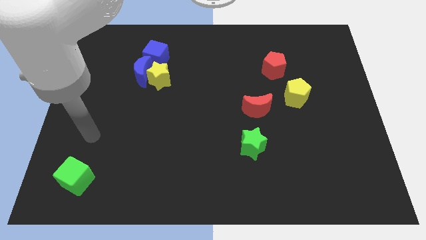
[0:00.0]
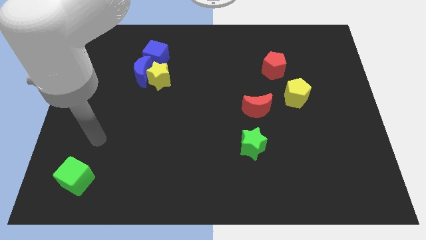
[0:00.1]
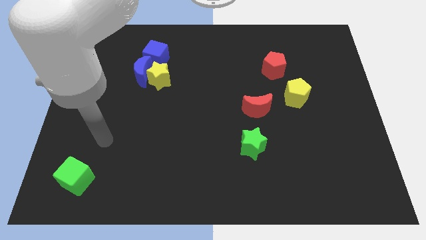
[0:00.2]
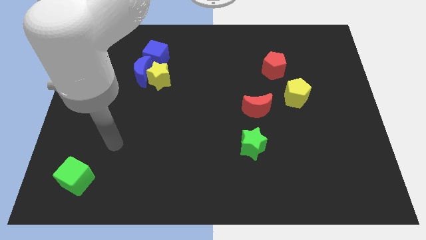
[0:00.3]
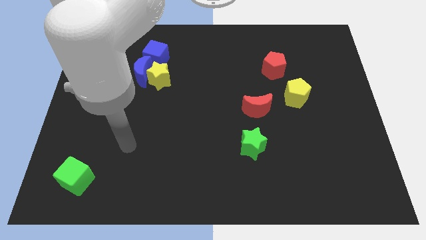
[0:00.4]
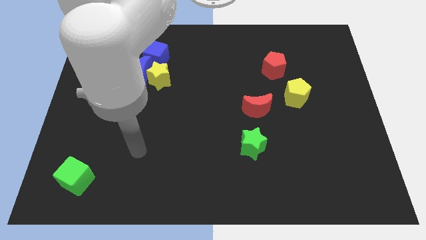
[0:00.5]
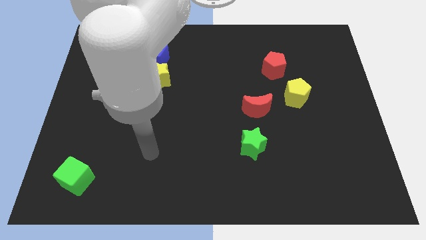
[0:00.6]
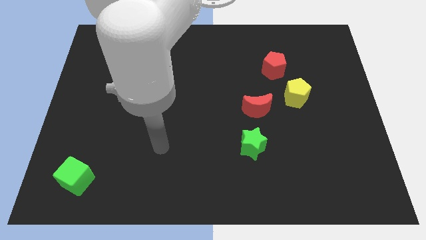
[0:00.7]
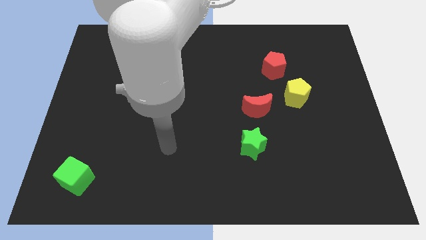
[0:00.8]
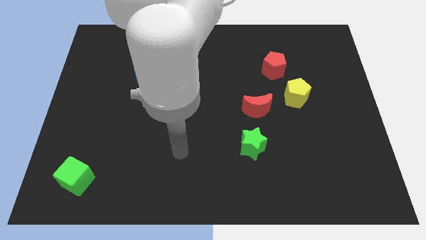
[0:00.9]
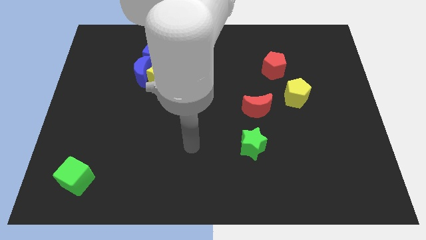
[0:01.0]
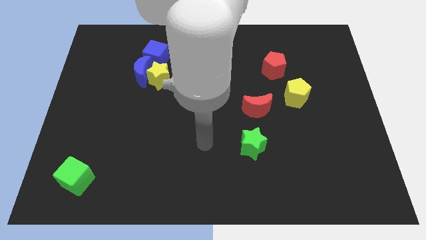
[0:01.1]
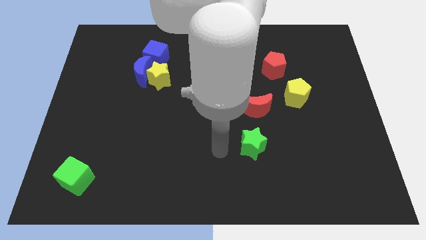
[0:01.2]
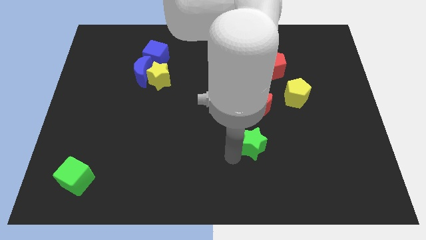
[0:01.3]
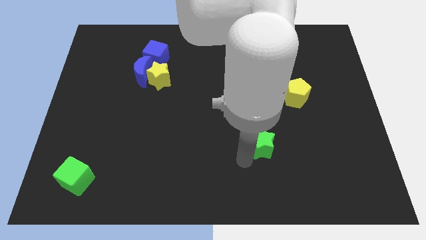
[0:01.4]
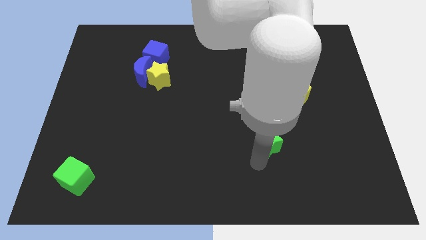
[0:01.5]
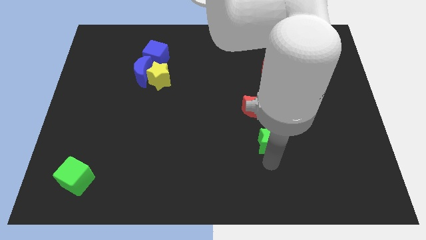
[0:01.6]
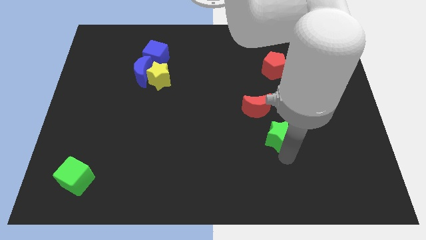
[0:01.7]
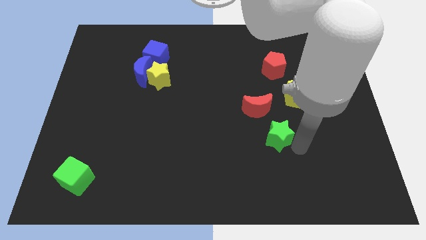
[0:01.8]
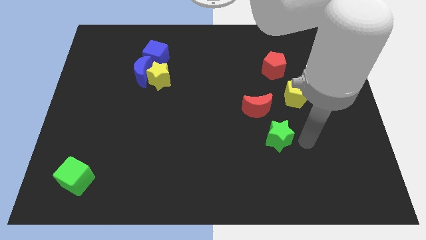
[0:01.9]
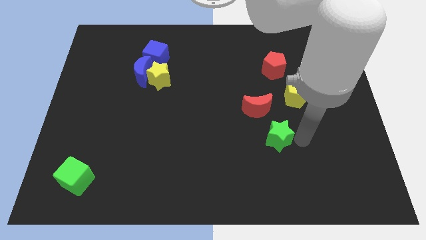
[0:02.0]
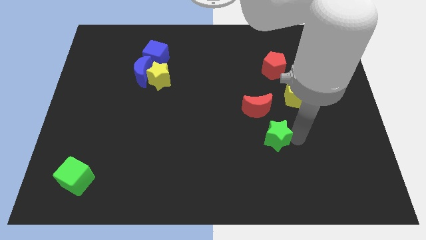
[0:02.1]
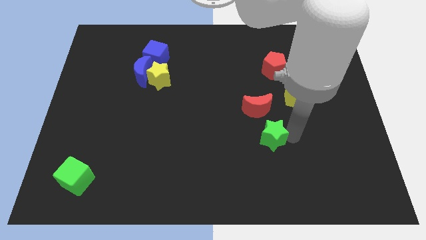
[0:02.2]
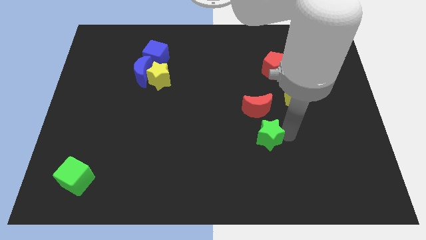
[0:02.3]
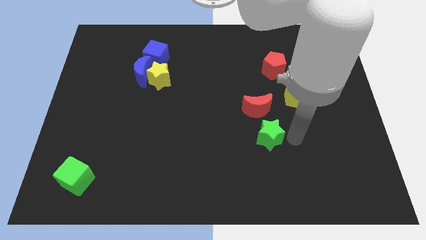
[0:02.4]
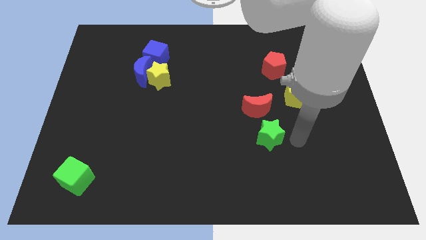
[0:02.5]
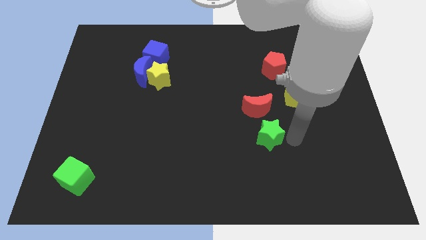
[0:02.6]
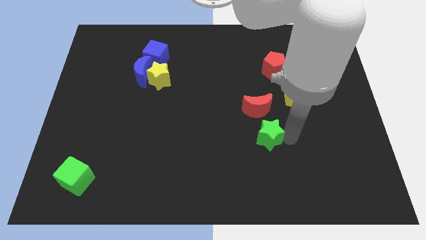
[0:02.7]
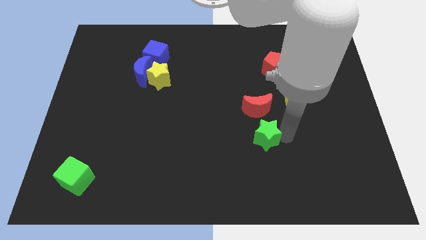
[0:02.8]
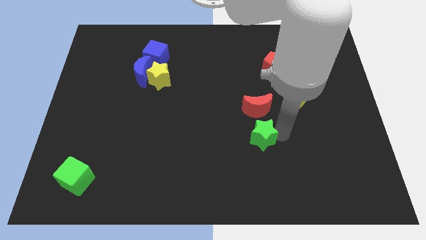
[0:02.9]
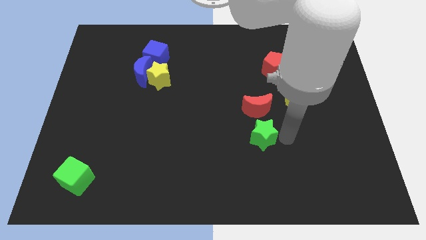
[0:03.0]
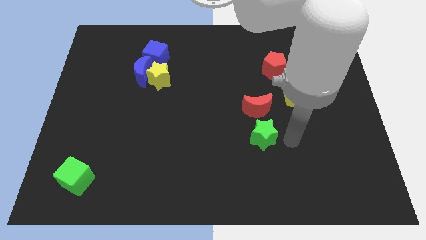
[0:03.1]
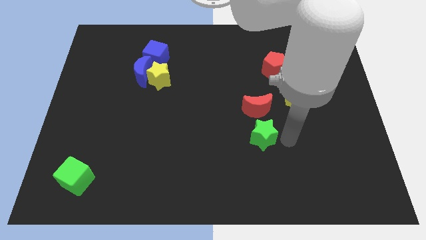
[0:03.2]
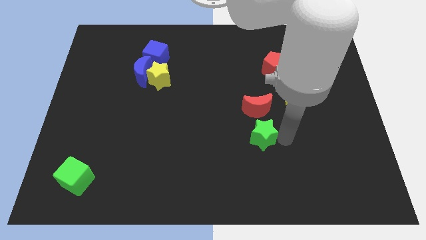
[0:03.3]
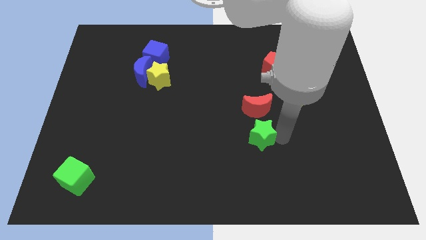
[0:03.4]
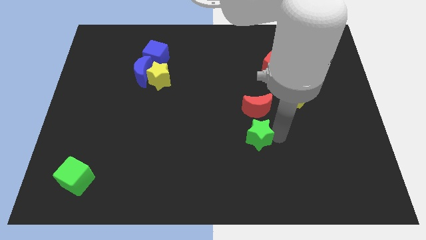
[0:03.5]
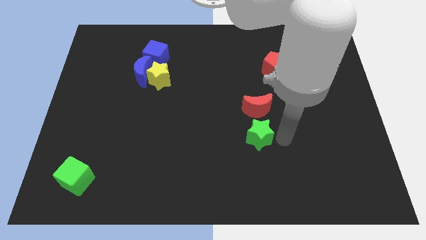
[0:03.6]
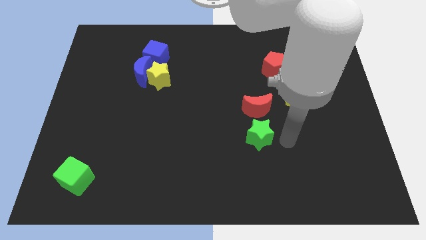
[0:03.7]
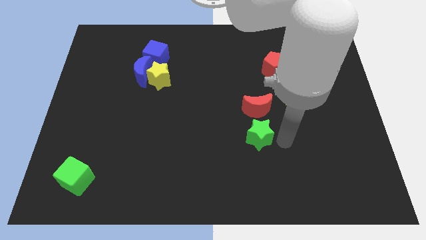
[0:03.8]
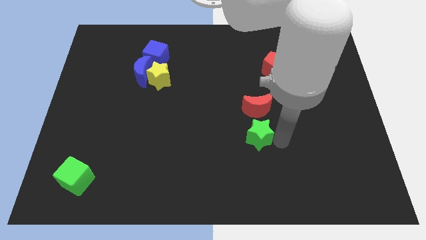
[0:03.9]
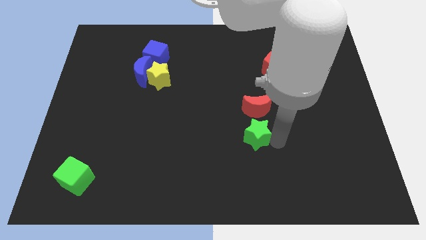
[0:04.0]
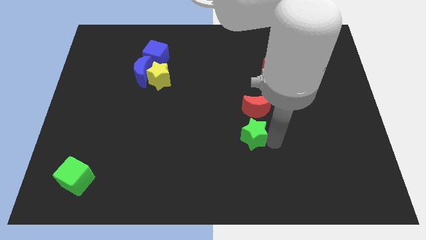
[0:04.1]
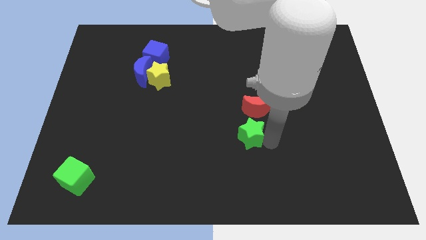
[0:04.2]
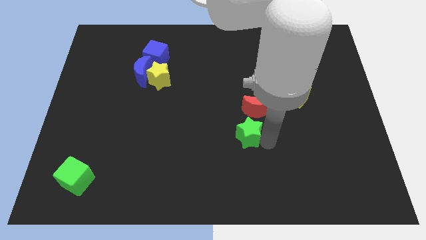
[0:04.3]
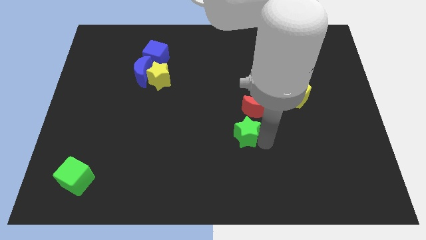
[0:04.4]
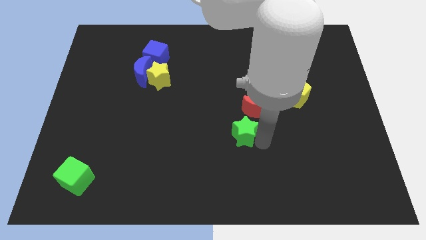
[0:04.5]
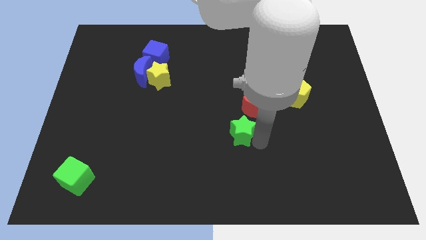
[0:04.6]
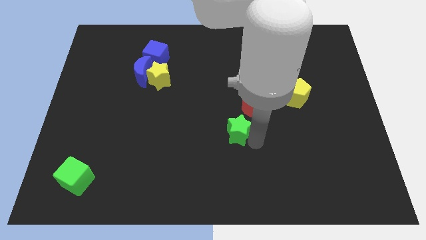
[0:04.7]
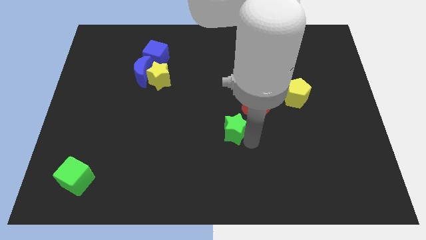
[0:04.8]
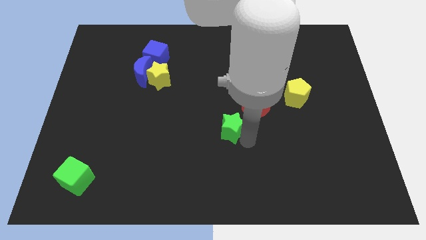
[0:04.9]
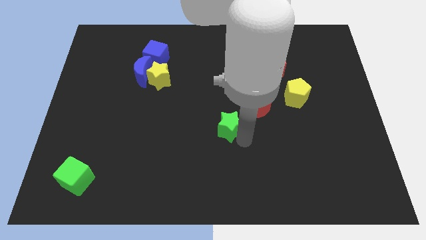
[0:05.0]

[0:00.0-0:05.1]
slightly move the green star upwards and to the left

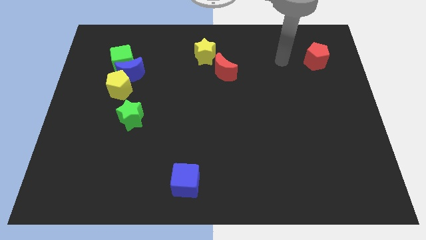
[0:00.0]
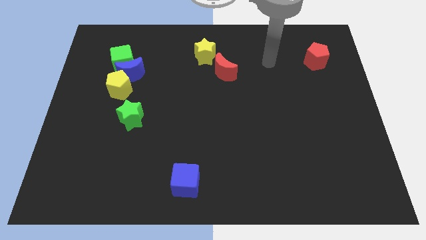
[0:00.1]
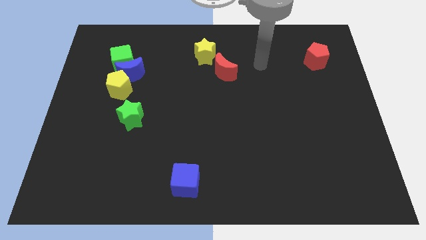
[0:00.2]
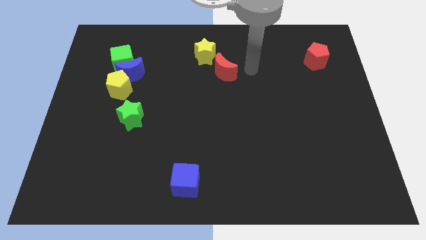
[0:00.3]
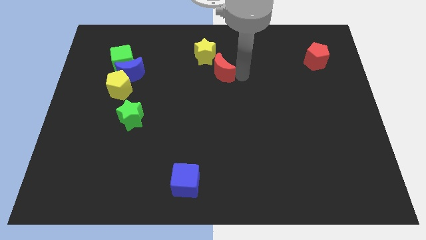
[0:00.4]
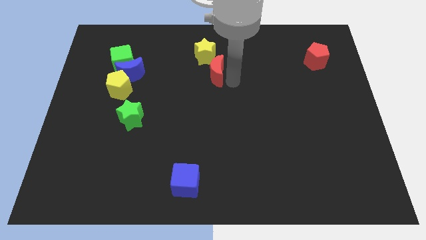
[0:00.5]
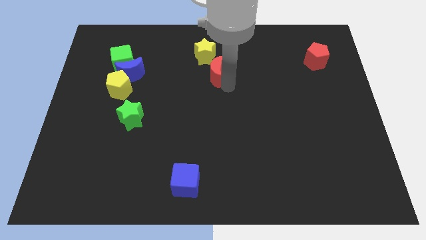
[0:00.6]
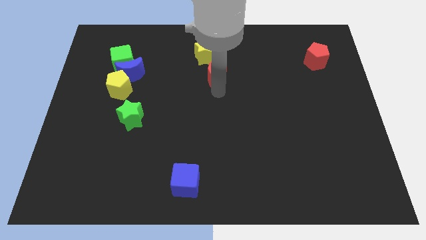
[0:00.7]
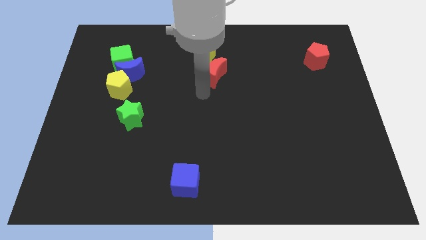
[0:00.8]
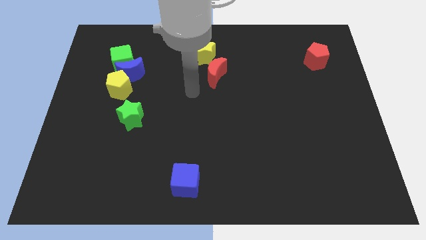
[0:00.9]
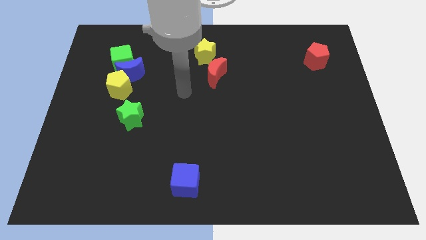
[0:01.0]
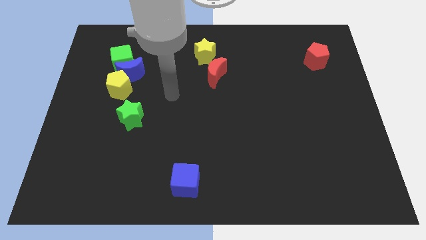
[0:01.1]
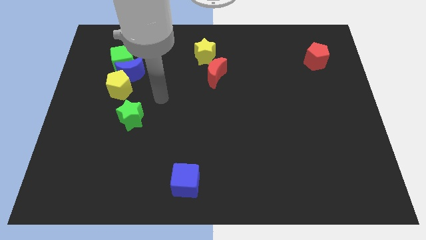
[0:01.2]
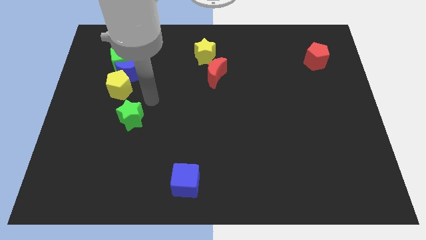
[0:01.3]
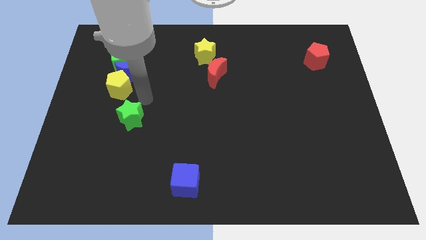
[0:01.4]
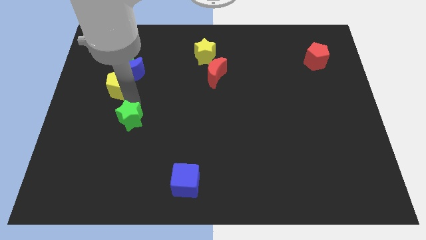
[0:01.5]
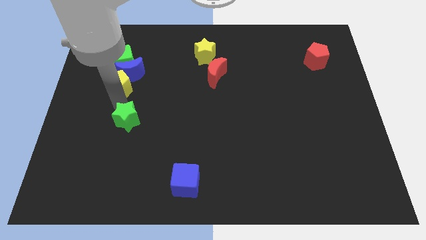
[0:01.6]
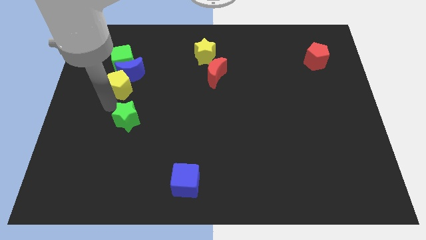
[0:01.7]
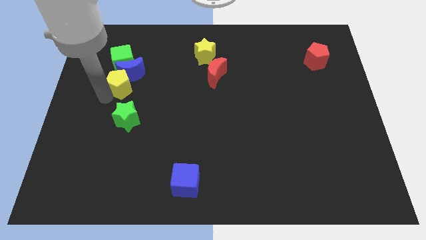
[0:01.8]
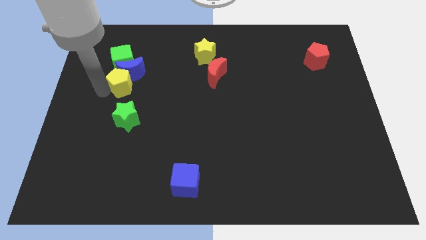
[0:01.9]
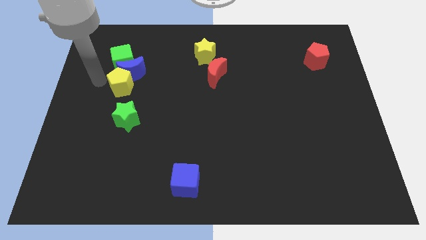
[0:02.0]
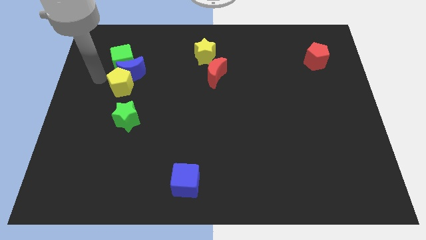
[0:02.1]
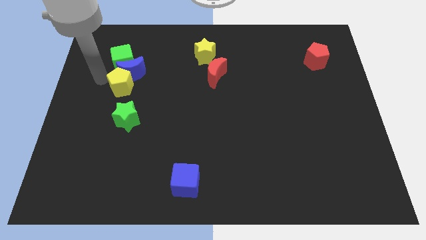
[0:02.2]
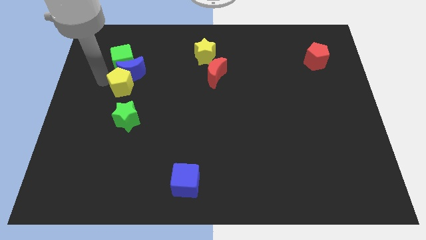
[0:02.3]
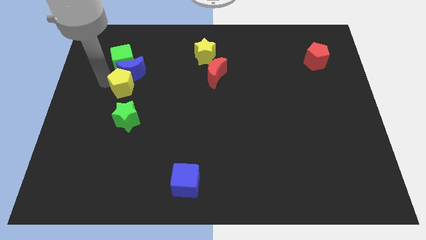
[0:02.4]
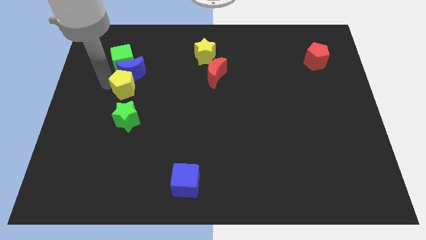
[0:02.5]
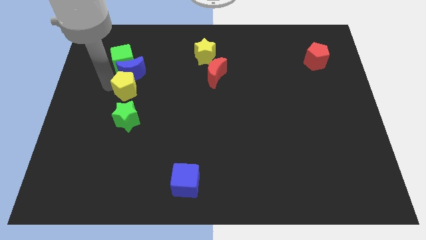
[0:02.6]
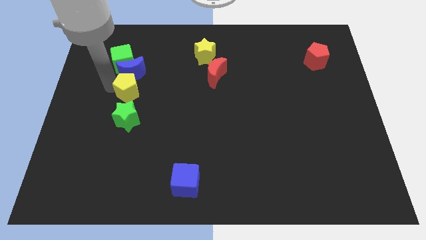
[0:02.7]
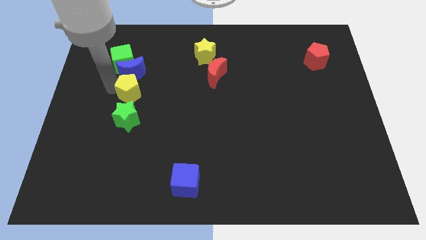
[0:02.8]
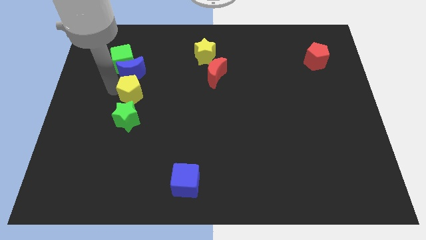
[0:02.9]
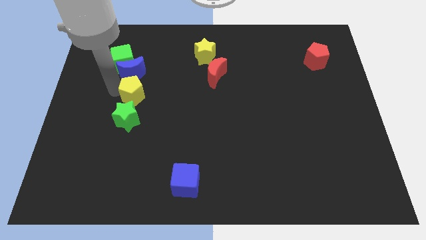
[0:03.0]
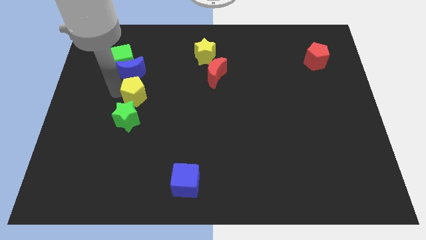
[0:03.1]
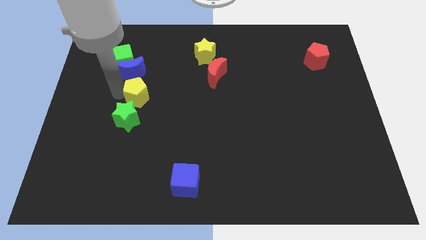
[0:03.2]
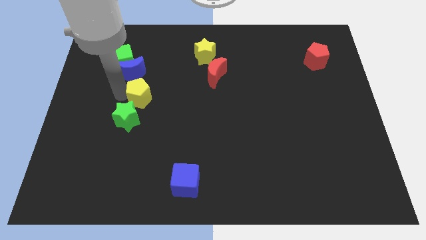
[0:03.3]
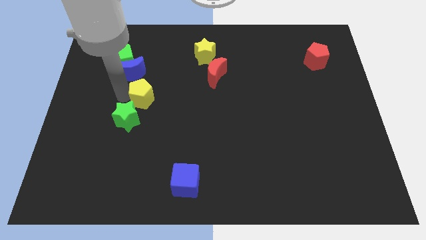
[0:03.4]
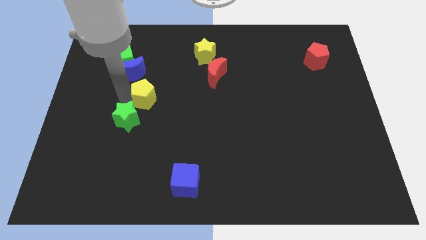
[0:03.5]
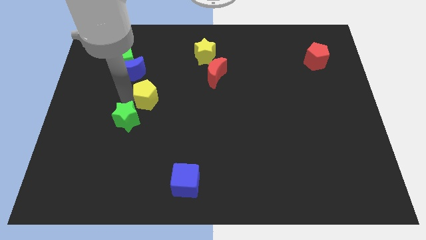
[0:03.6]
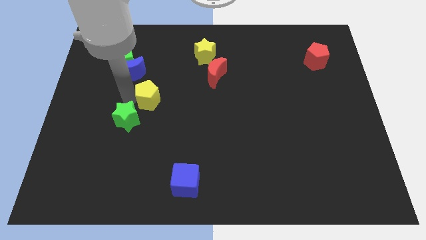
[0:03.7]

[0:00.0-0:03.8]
push the yellow pentagon right slightly
